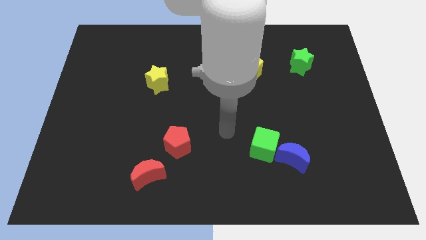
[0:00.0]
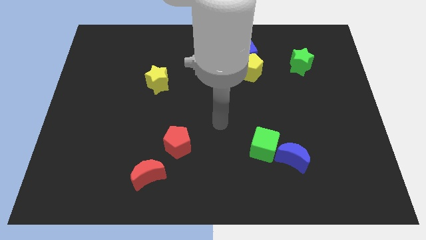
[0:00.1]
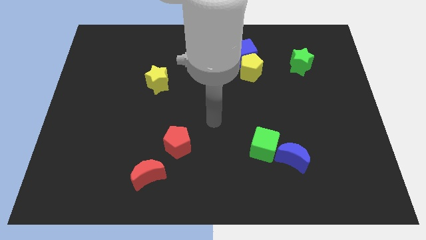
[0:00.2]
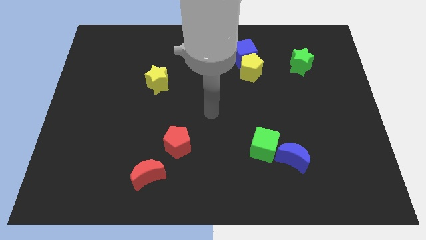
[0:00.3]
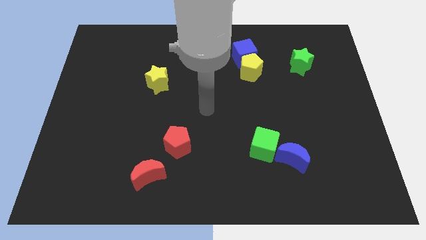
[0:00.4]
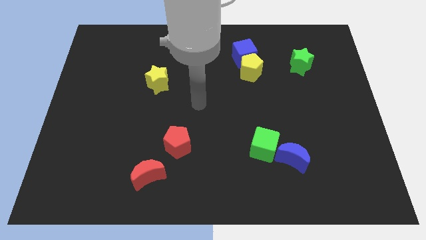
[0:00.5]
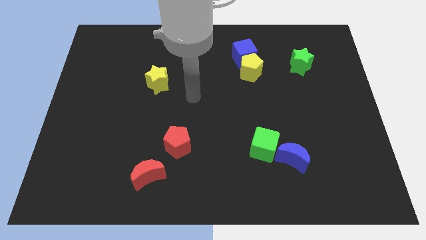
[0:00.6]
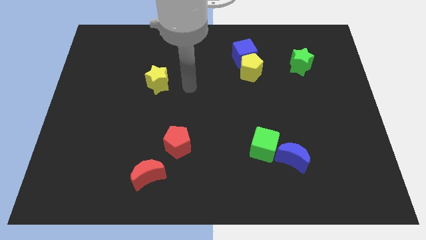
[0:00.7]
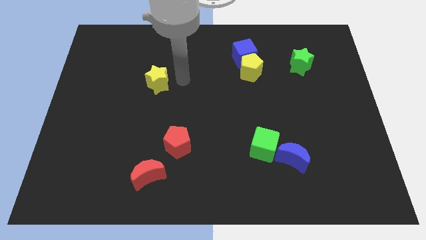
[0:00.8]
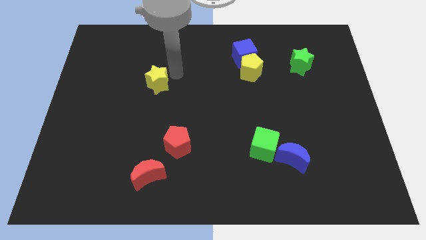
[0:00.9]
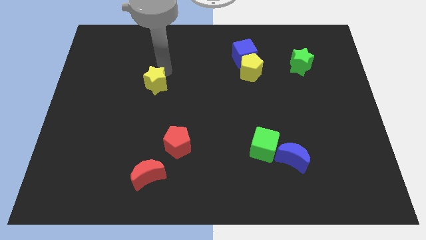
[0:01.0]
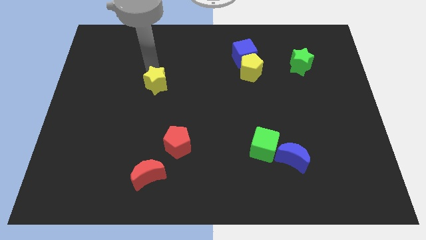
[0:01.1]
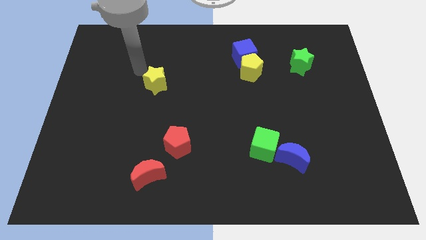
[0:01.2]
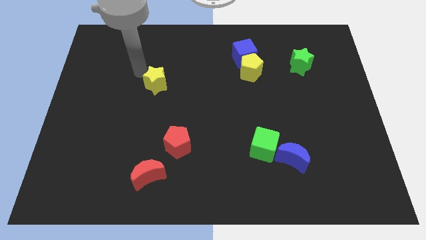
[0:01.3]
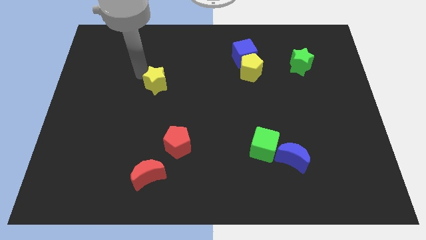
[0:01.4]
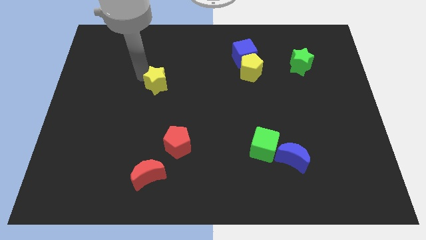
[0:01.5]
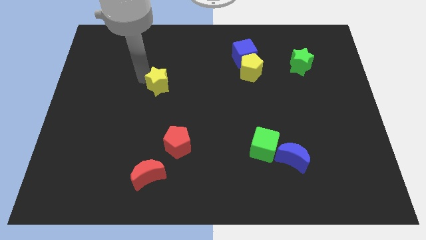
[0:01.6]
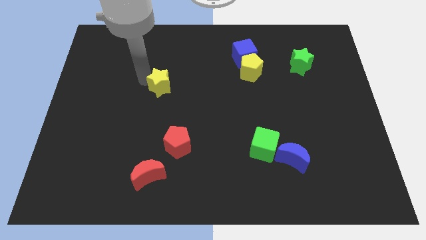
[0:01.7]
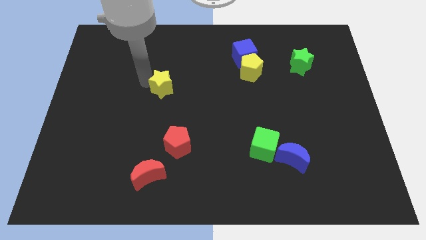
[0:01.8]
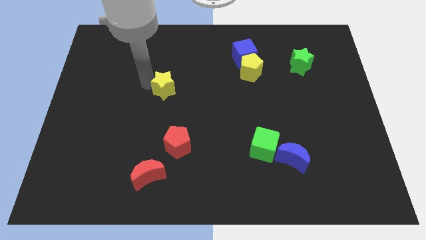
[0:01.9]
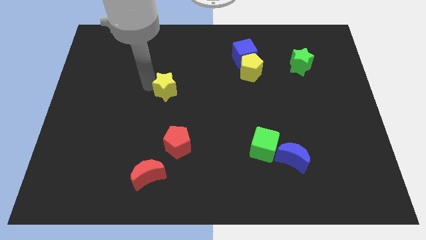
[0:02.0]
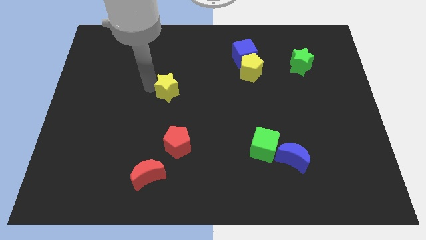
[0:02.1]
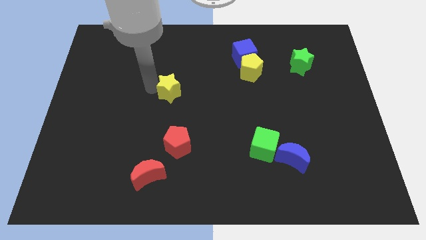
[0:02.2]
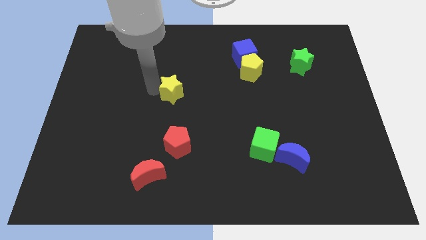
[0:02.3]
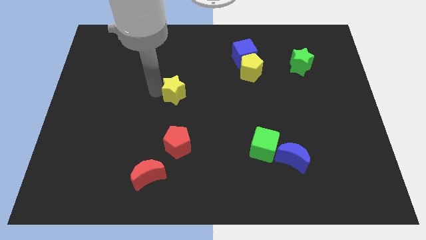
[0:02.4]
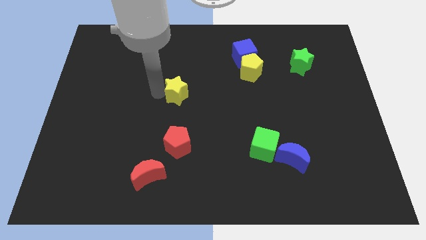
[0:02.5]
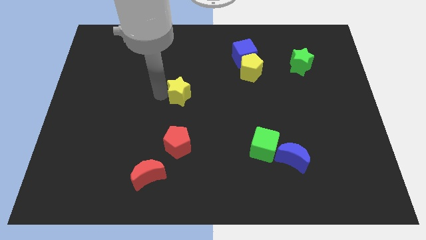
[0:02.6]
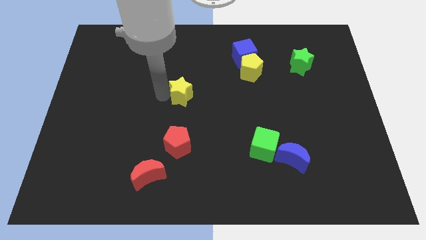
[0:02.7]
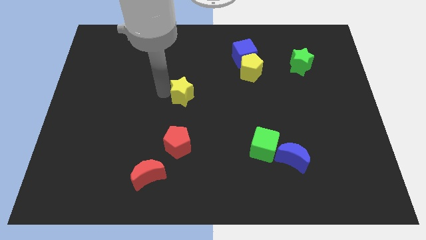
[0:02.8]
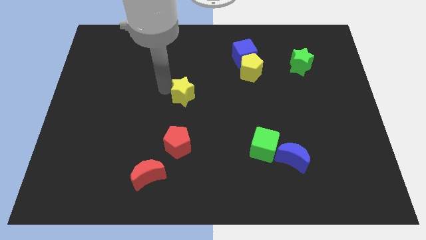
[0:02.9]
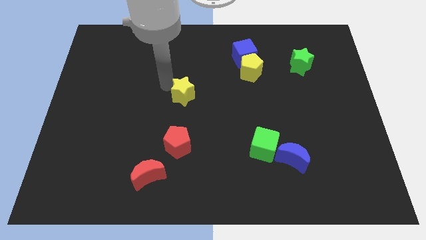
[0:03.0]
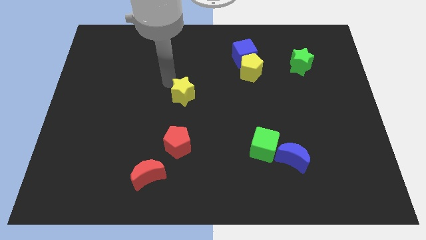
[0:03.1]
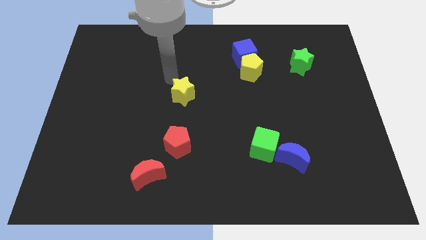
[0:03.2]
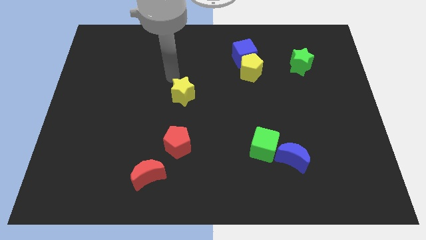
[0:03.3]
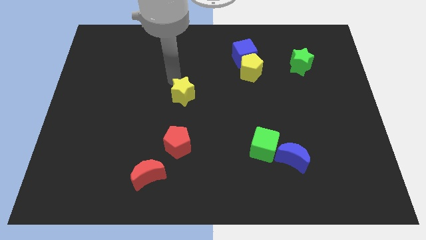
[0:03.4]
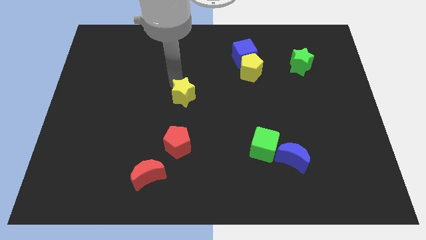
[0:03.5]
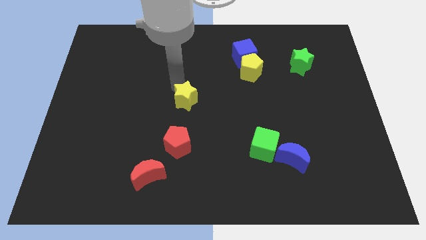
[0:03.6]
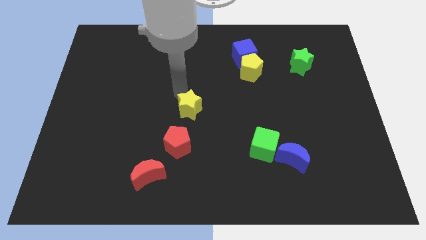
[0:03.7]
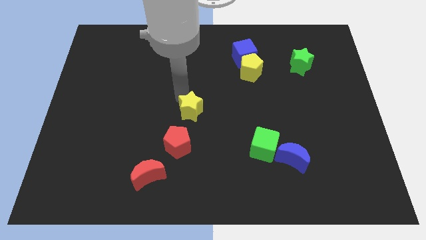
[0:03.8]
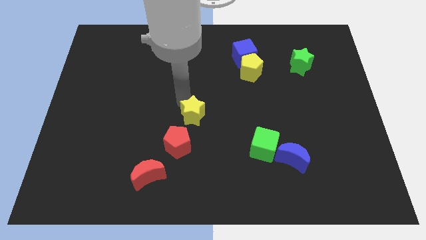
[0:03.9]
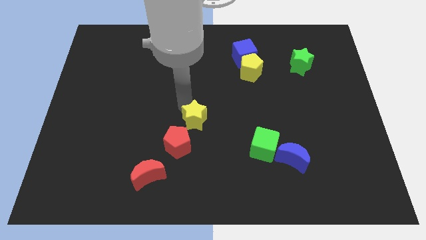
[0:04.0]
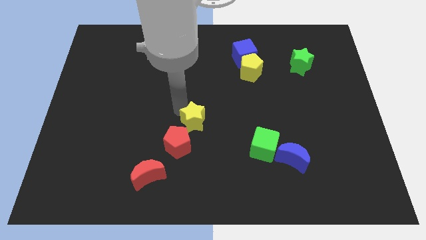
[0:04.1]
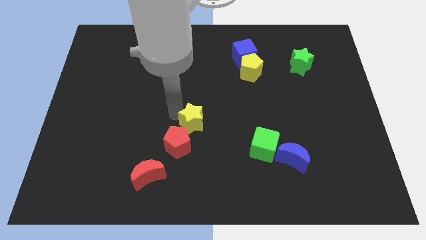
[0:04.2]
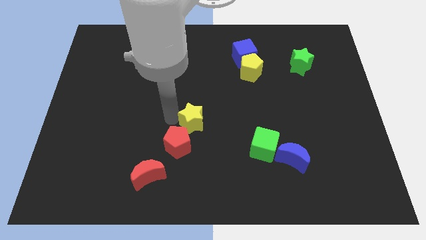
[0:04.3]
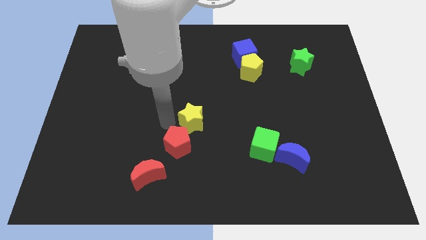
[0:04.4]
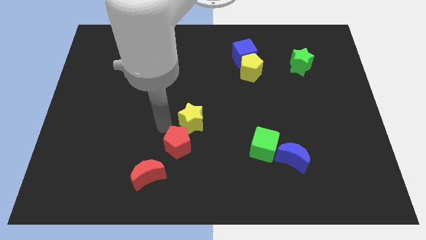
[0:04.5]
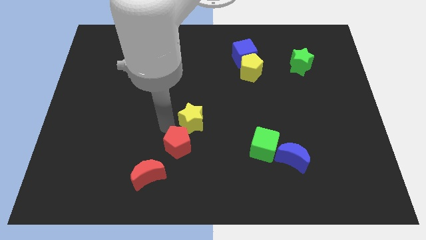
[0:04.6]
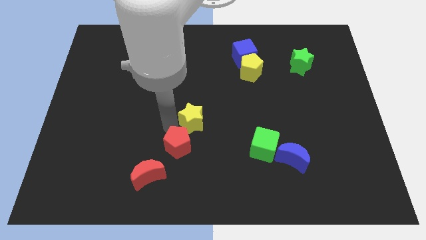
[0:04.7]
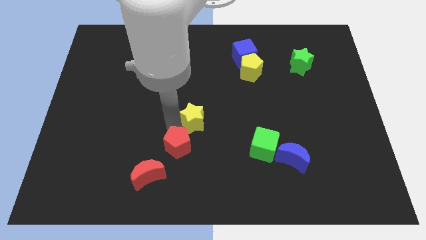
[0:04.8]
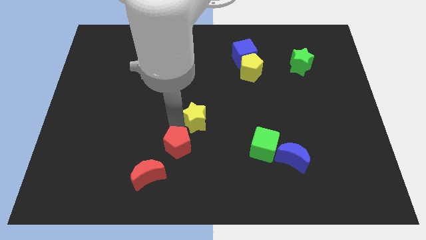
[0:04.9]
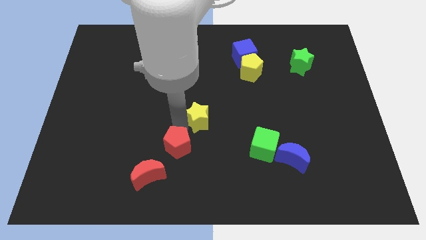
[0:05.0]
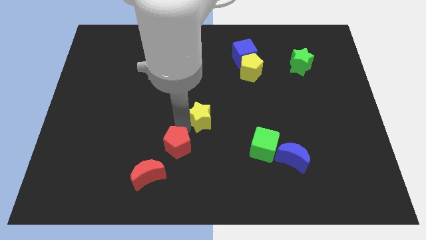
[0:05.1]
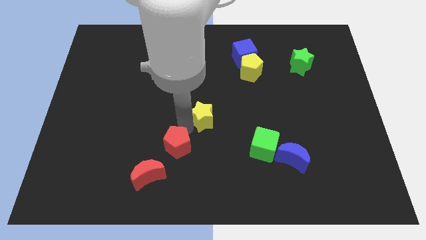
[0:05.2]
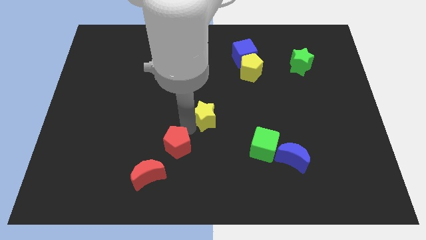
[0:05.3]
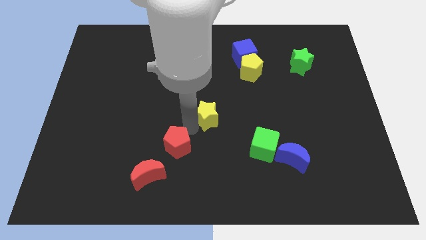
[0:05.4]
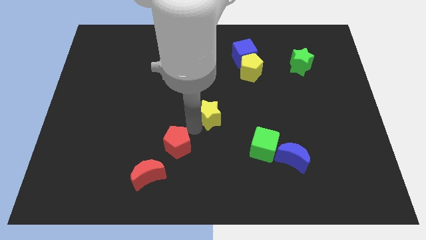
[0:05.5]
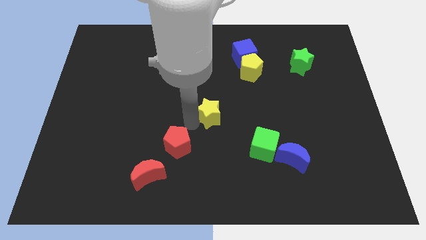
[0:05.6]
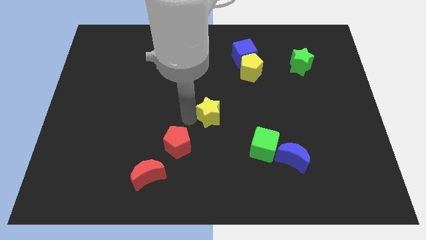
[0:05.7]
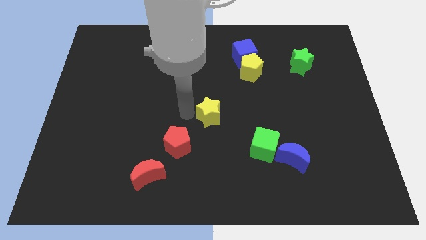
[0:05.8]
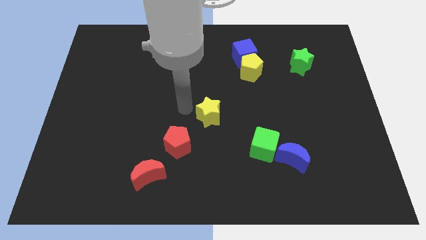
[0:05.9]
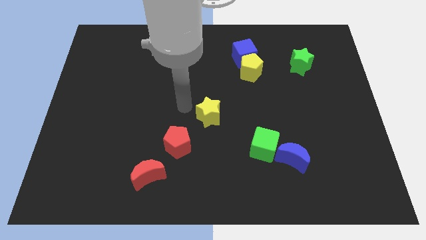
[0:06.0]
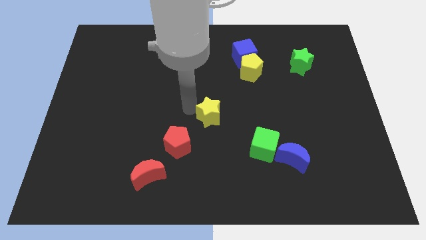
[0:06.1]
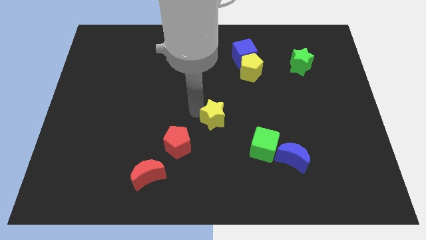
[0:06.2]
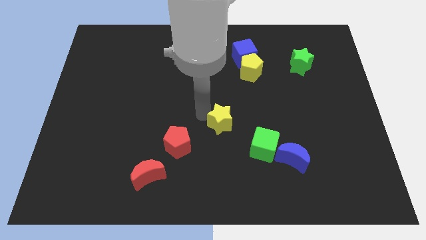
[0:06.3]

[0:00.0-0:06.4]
move the yellow star to the top left of the green cube

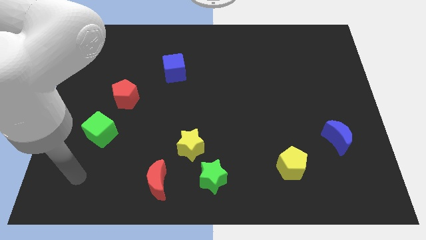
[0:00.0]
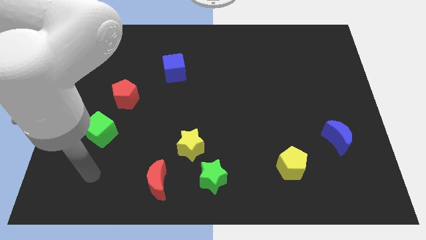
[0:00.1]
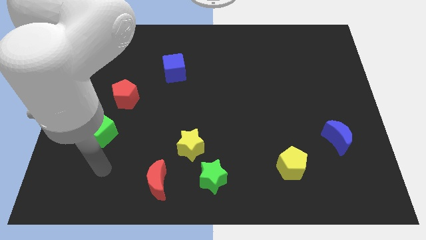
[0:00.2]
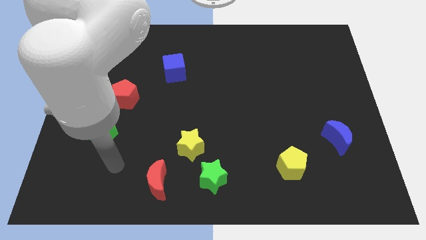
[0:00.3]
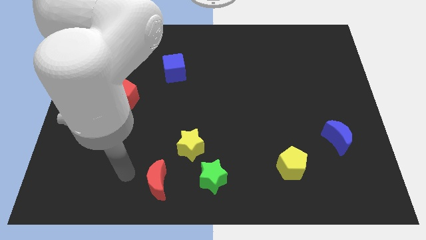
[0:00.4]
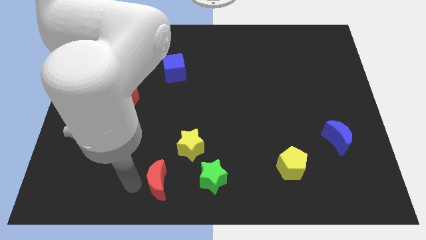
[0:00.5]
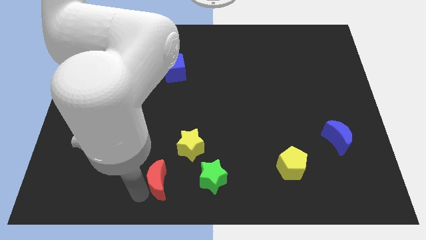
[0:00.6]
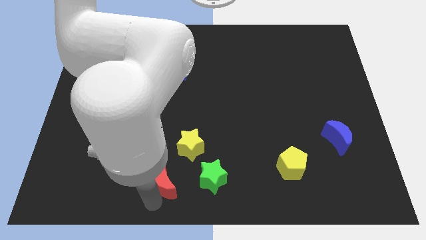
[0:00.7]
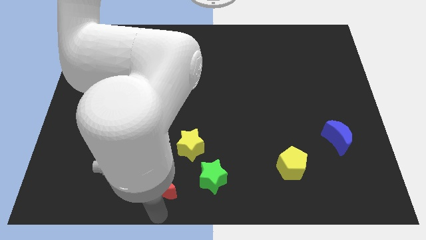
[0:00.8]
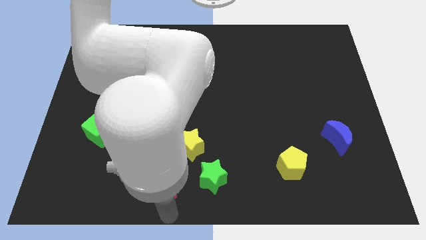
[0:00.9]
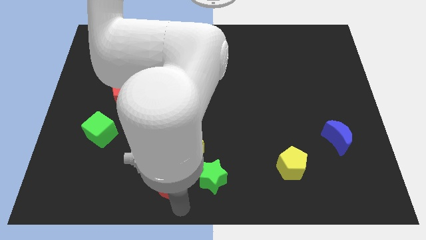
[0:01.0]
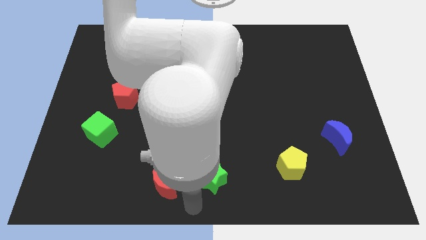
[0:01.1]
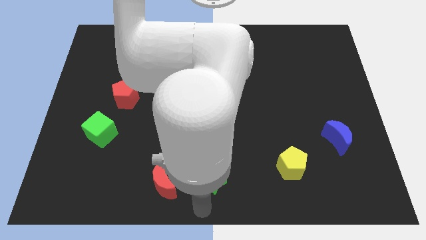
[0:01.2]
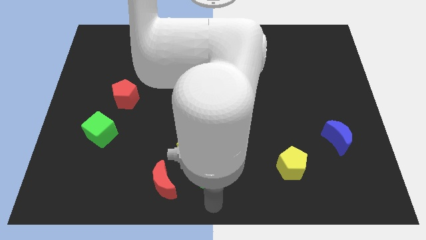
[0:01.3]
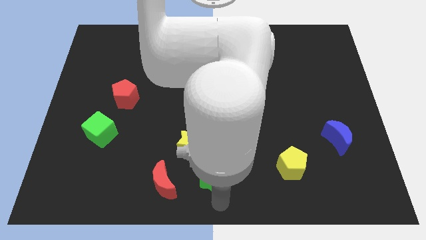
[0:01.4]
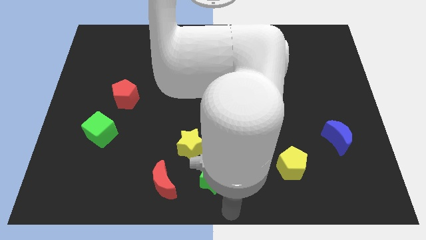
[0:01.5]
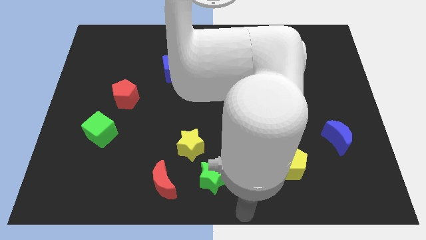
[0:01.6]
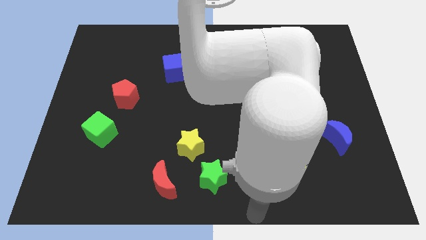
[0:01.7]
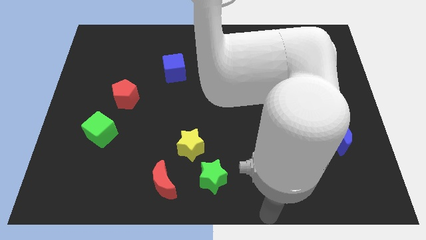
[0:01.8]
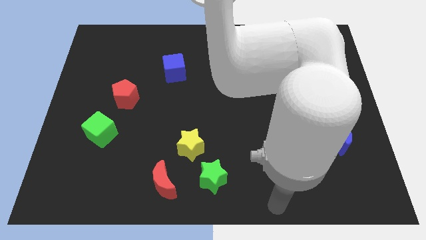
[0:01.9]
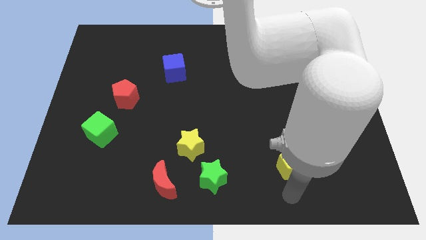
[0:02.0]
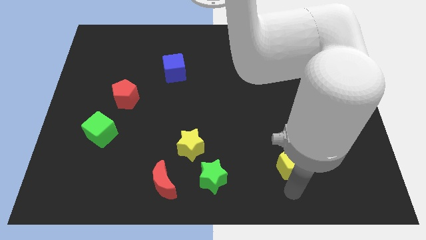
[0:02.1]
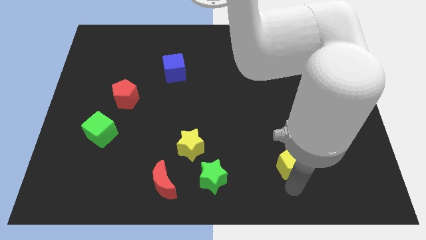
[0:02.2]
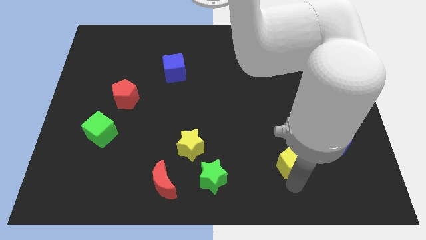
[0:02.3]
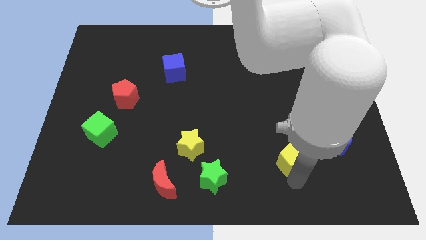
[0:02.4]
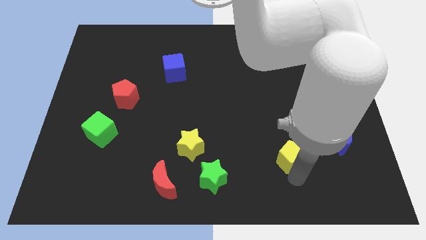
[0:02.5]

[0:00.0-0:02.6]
slide the yellow pentagon just left of the blue moon
